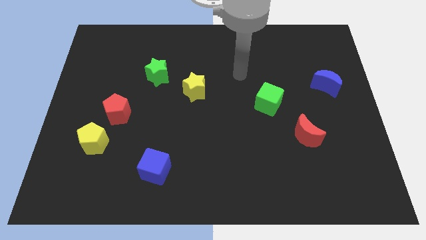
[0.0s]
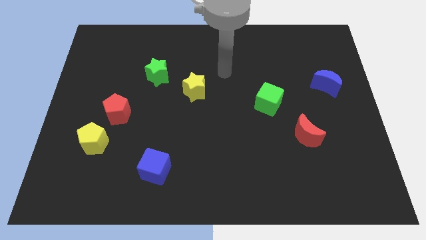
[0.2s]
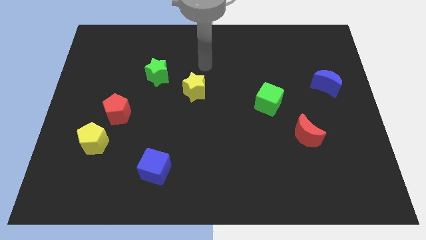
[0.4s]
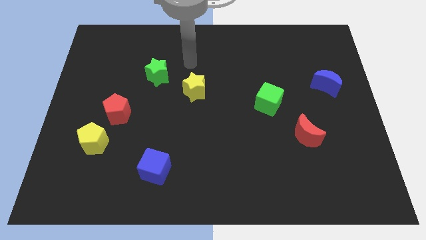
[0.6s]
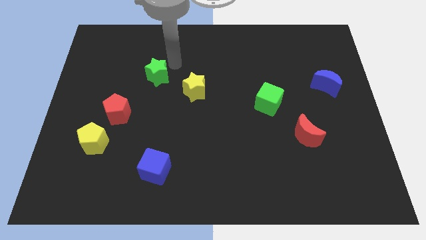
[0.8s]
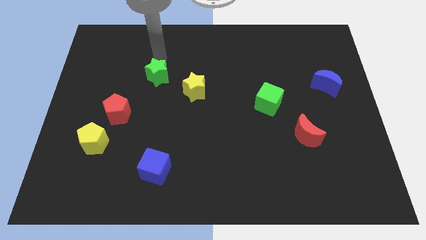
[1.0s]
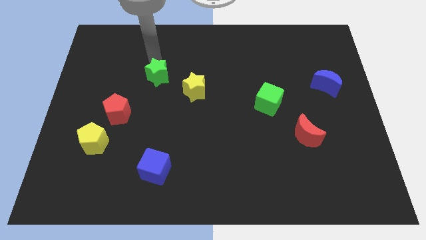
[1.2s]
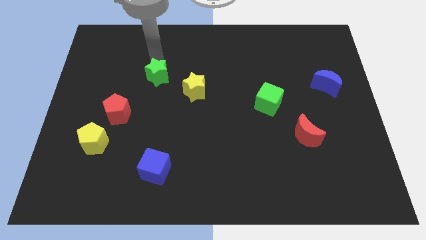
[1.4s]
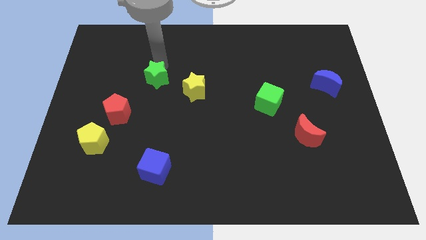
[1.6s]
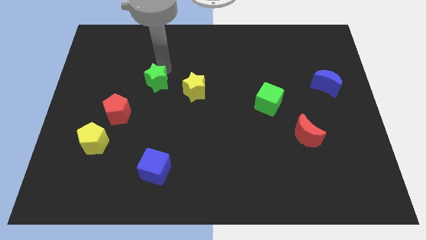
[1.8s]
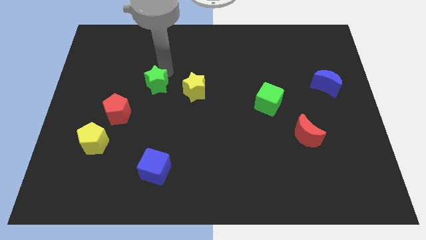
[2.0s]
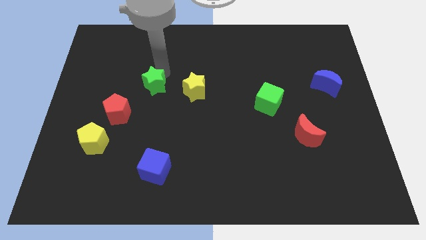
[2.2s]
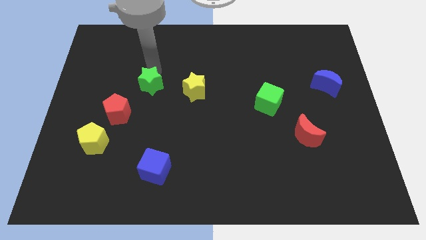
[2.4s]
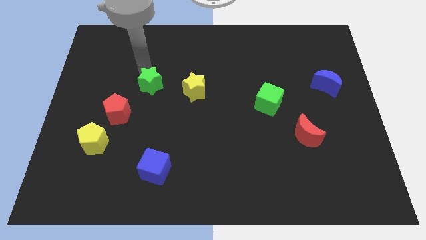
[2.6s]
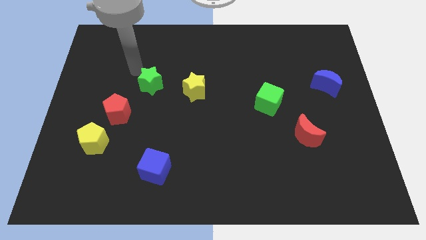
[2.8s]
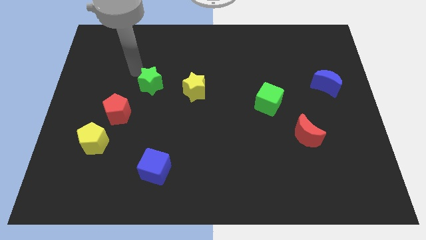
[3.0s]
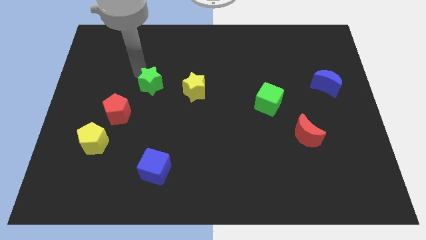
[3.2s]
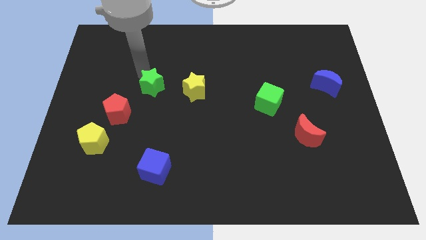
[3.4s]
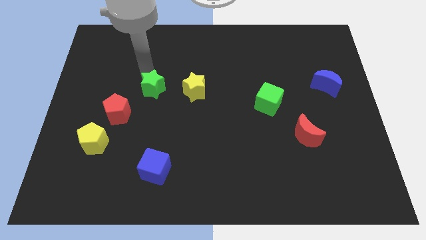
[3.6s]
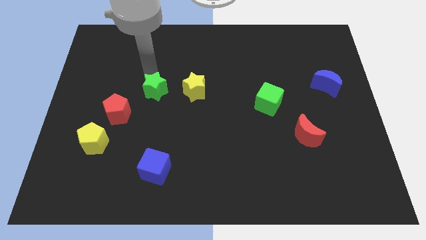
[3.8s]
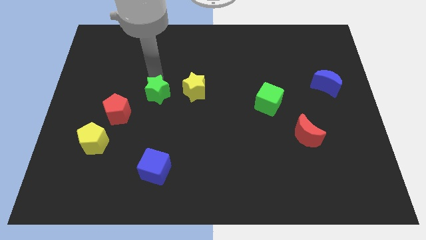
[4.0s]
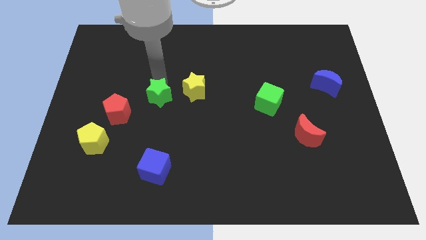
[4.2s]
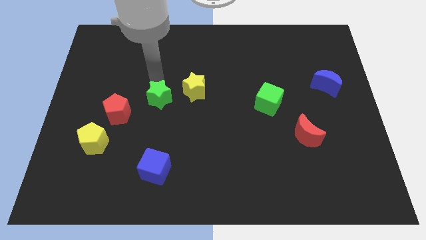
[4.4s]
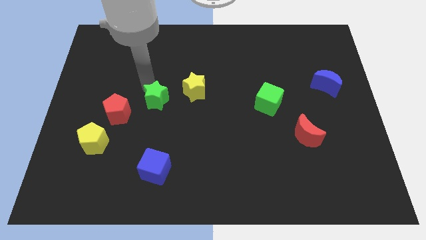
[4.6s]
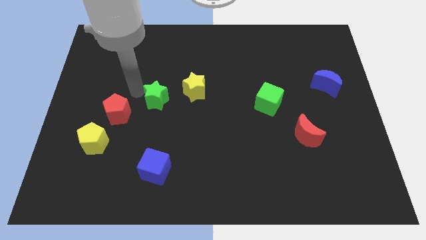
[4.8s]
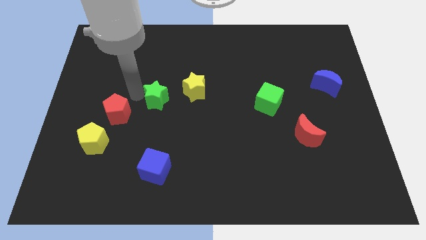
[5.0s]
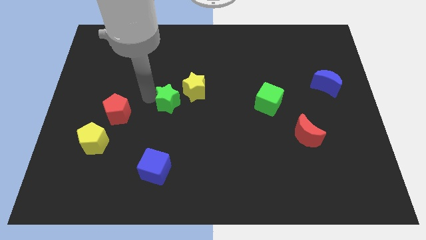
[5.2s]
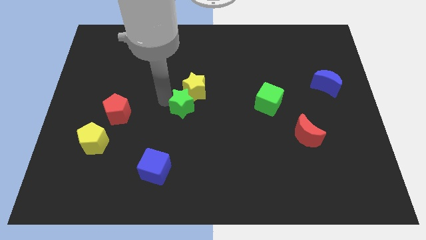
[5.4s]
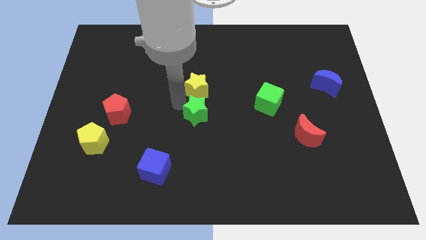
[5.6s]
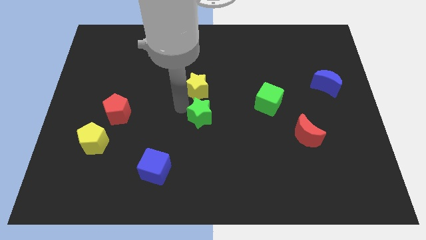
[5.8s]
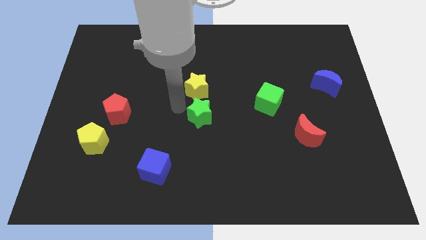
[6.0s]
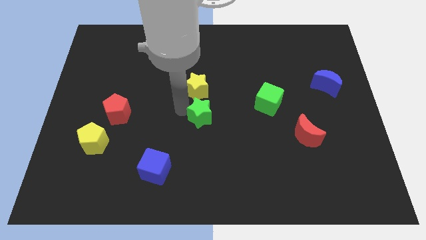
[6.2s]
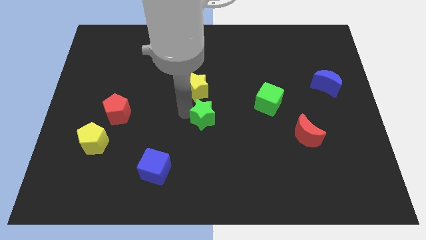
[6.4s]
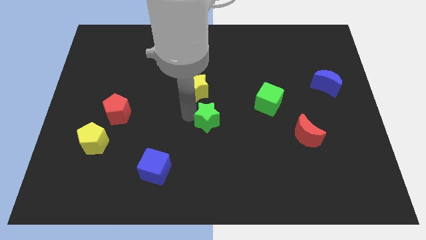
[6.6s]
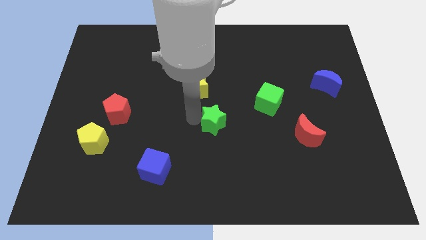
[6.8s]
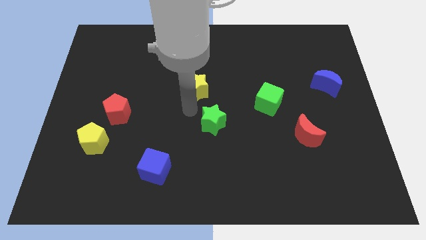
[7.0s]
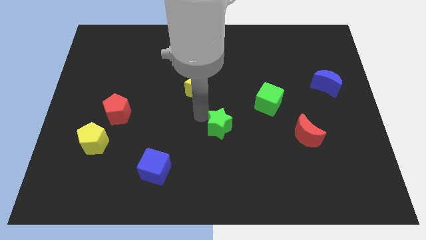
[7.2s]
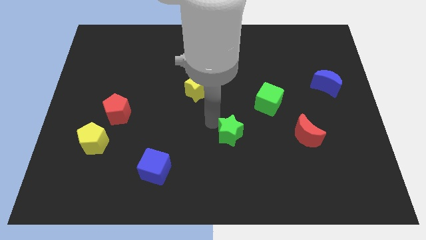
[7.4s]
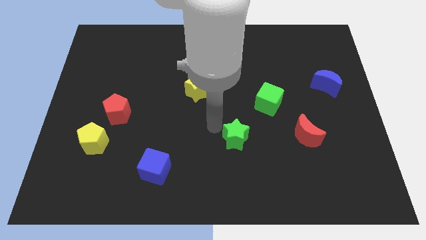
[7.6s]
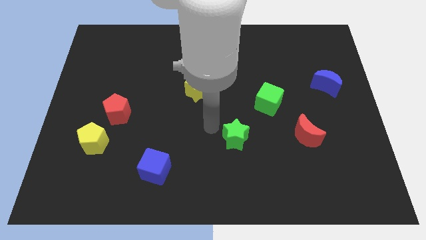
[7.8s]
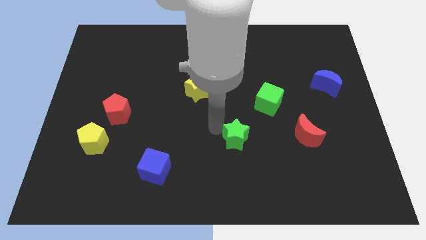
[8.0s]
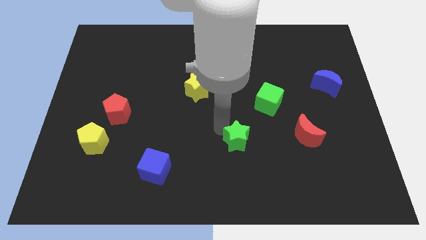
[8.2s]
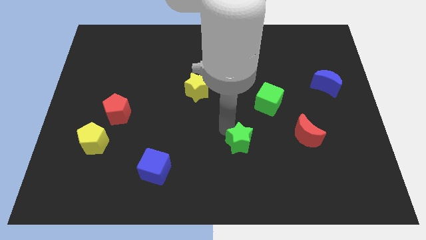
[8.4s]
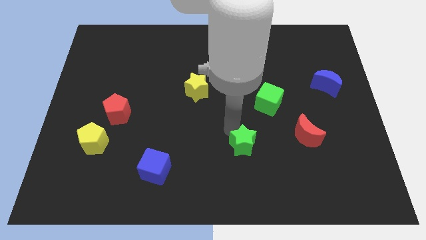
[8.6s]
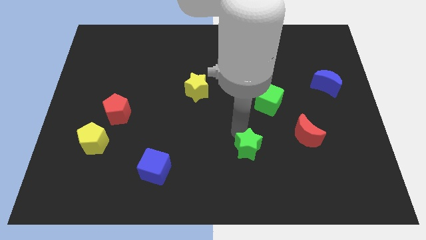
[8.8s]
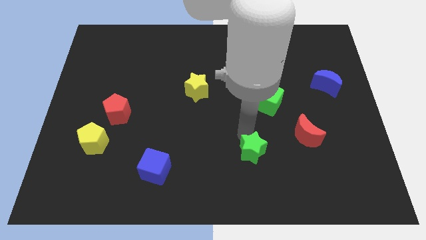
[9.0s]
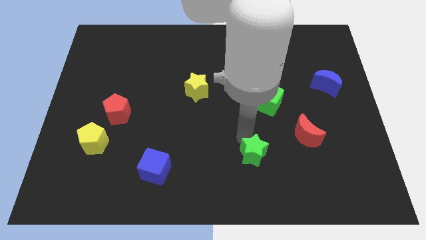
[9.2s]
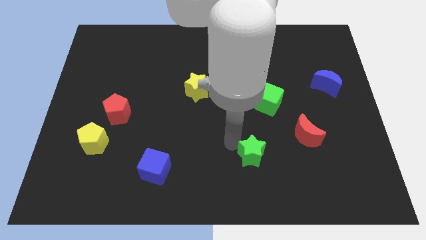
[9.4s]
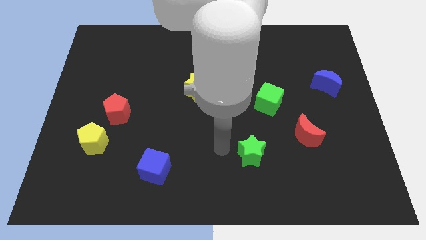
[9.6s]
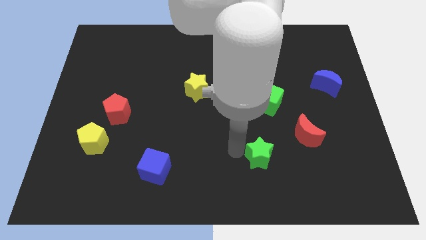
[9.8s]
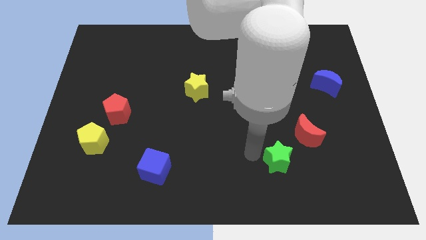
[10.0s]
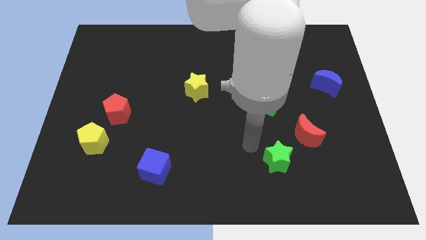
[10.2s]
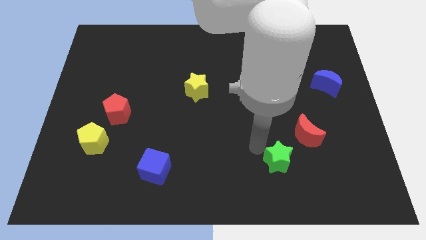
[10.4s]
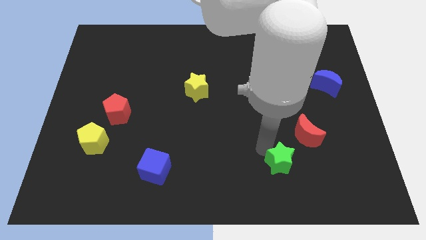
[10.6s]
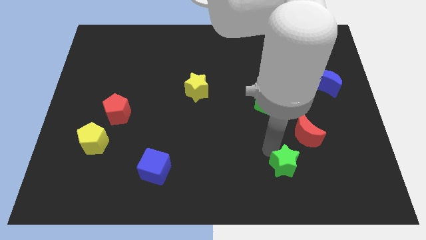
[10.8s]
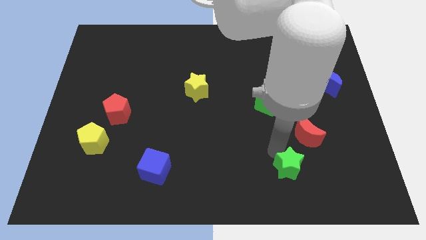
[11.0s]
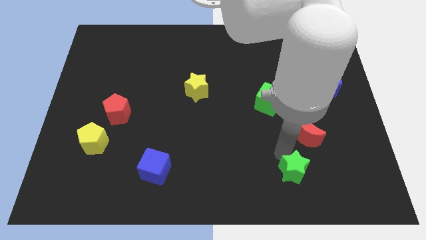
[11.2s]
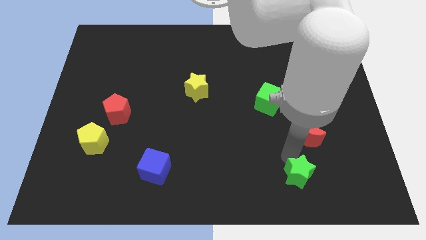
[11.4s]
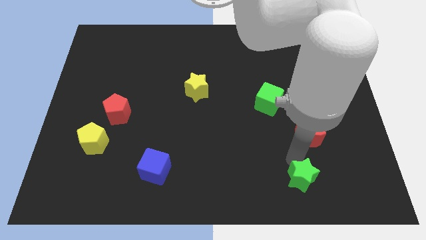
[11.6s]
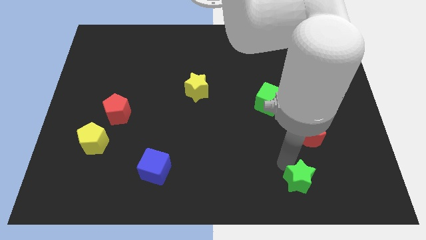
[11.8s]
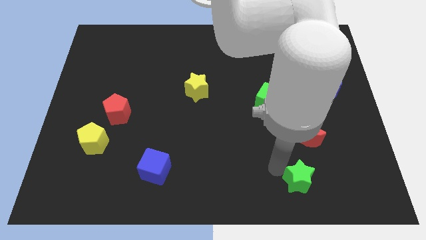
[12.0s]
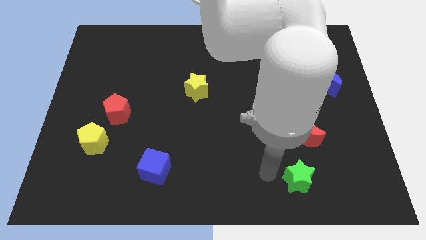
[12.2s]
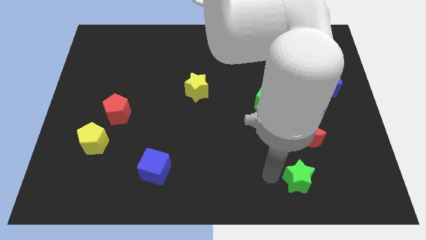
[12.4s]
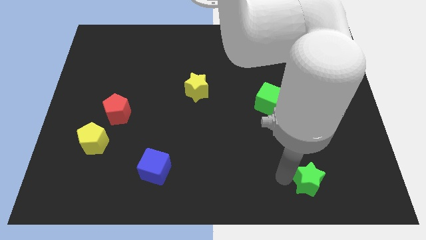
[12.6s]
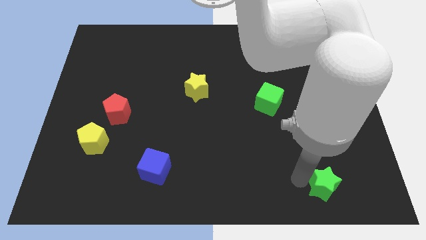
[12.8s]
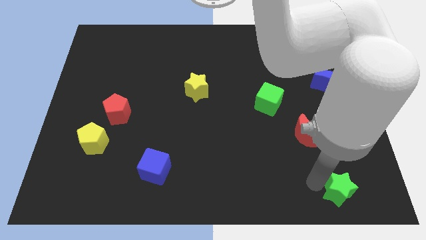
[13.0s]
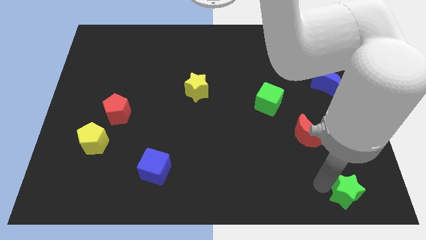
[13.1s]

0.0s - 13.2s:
push the green star to the lower right corner
